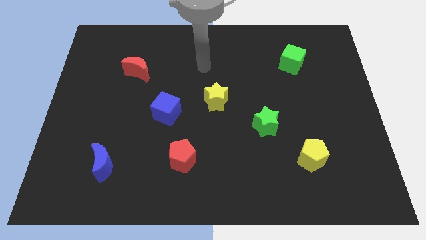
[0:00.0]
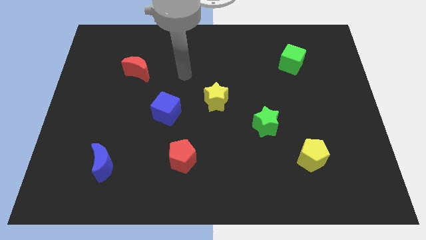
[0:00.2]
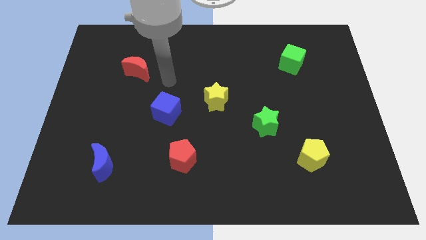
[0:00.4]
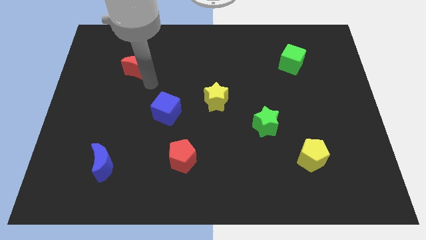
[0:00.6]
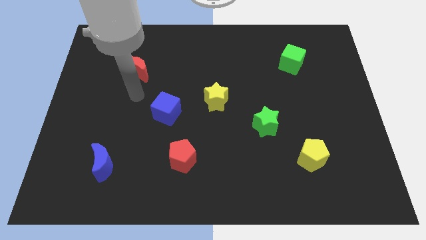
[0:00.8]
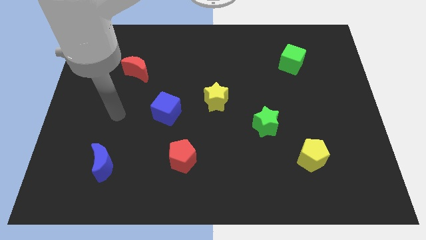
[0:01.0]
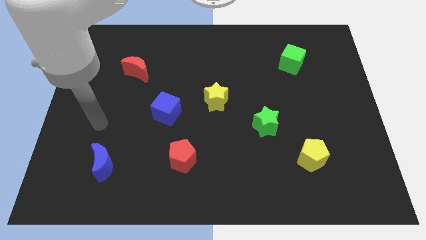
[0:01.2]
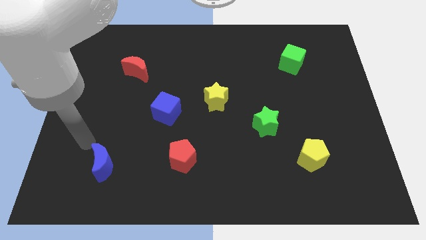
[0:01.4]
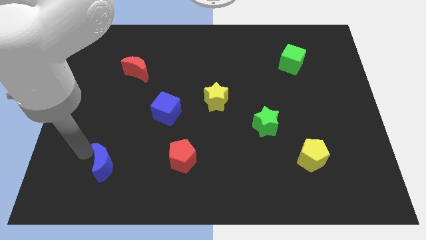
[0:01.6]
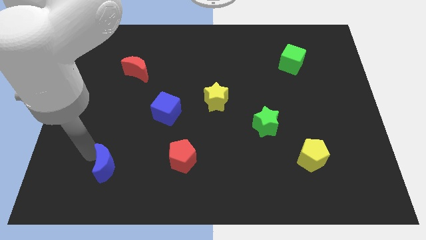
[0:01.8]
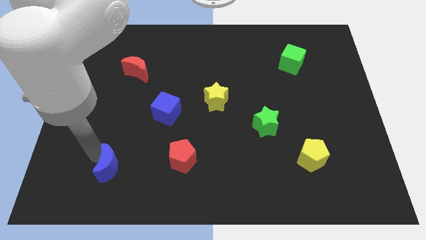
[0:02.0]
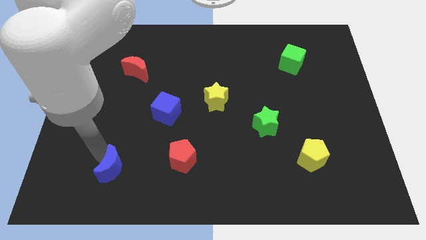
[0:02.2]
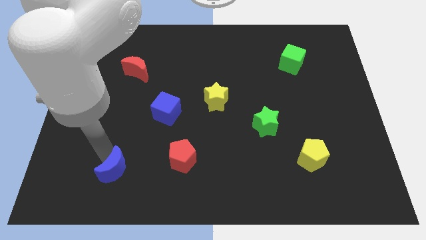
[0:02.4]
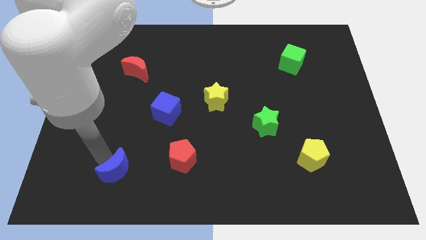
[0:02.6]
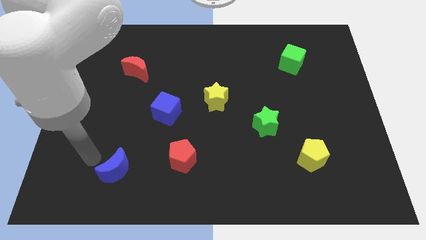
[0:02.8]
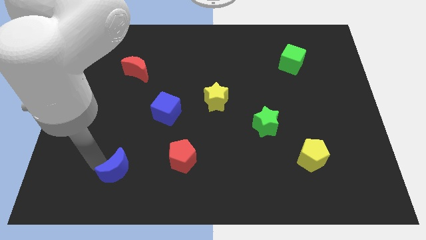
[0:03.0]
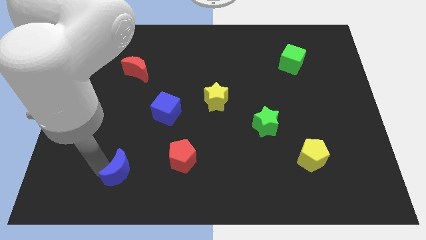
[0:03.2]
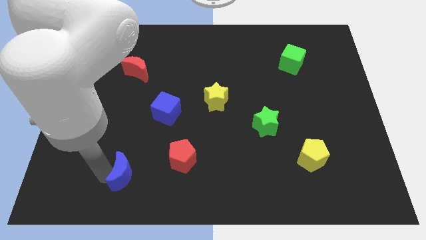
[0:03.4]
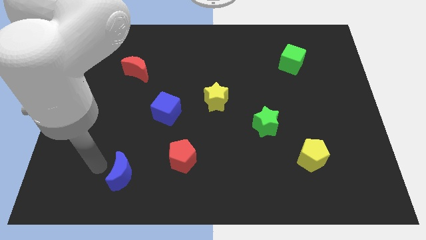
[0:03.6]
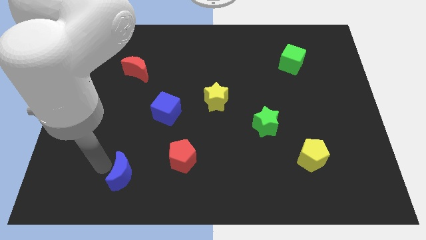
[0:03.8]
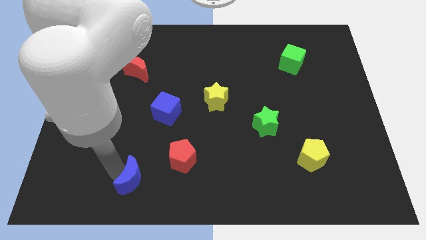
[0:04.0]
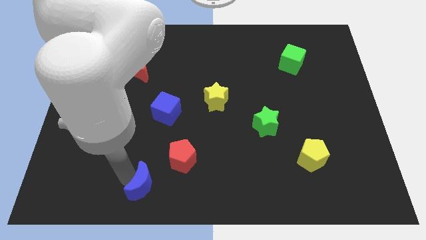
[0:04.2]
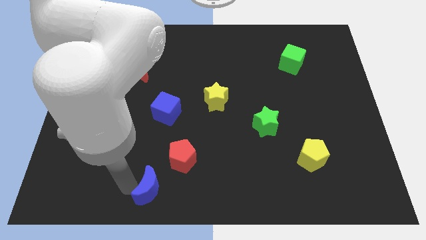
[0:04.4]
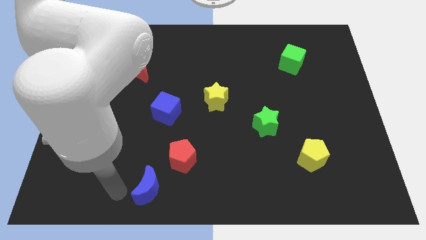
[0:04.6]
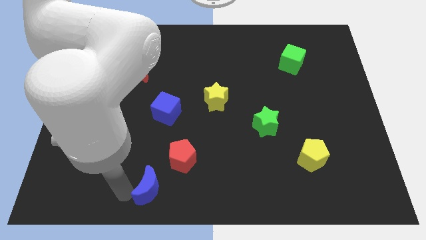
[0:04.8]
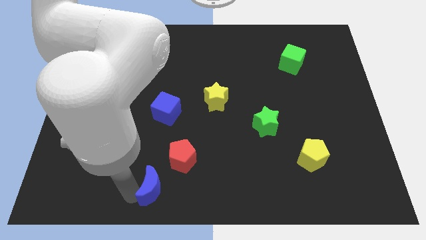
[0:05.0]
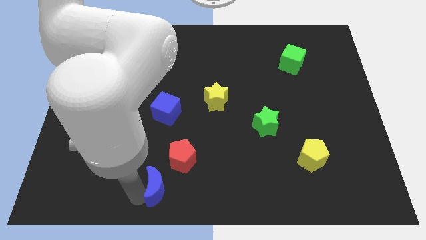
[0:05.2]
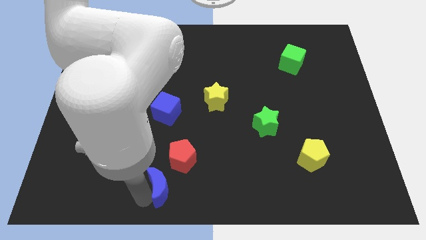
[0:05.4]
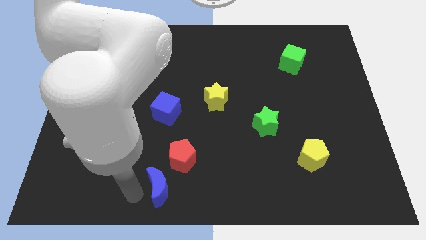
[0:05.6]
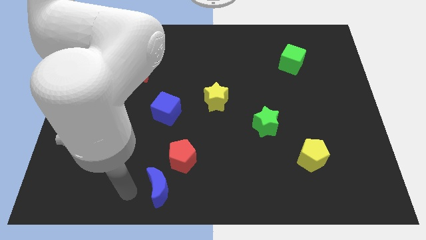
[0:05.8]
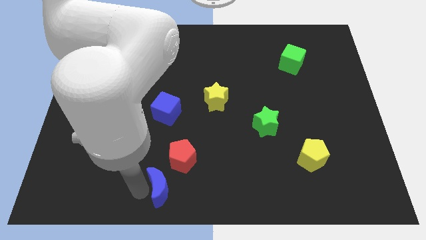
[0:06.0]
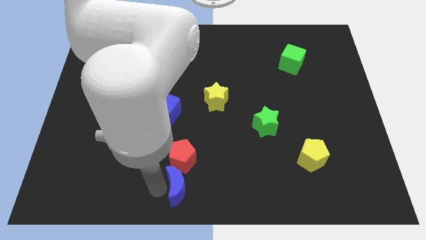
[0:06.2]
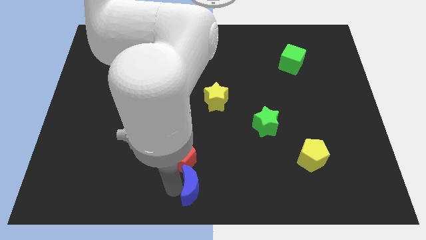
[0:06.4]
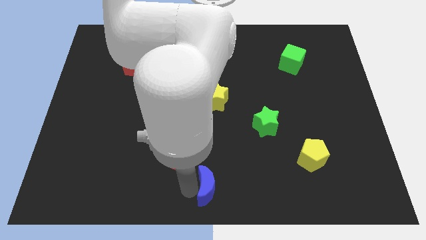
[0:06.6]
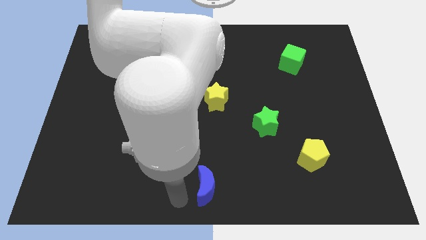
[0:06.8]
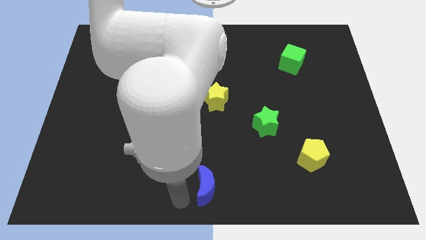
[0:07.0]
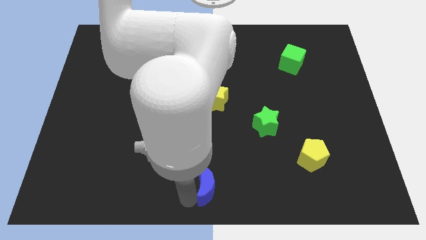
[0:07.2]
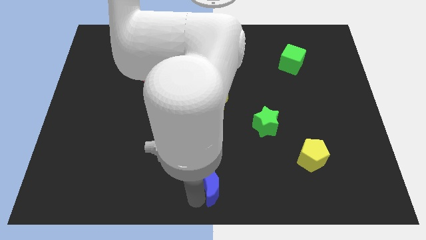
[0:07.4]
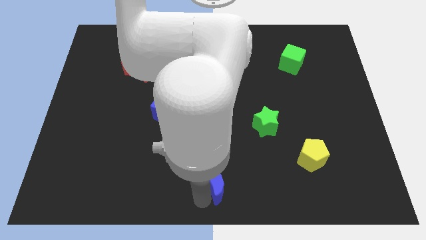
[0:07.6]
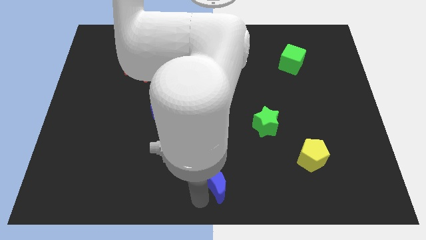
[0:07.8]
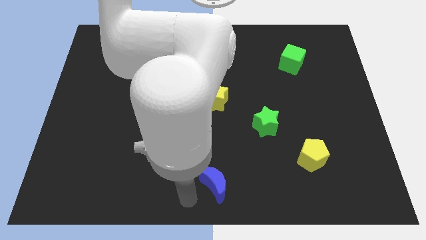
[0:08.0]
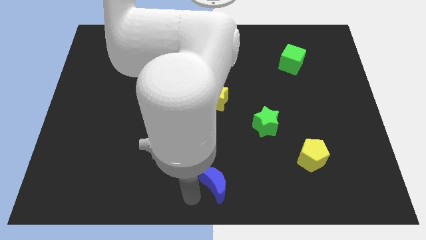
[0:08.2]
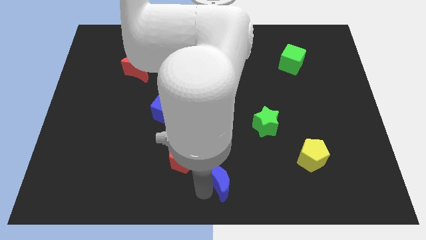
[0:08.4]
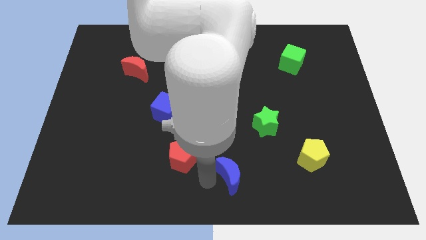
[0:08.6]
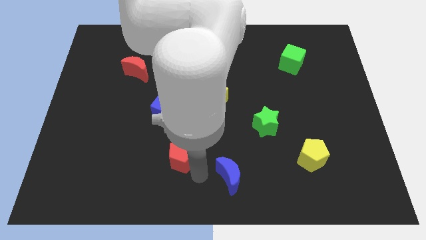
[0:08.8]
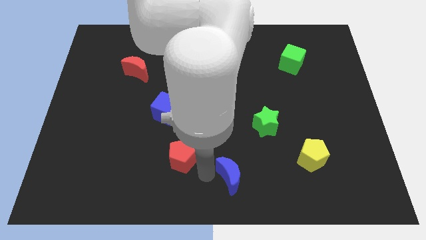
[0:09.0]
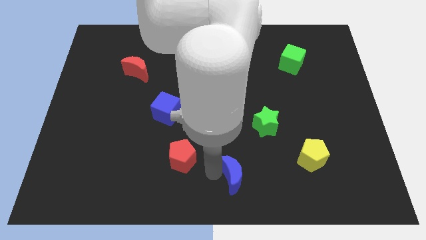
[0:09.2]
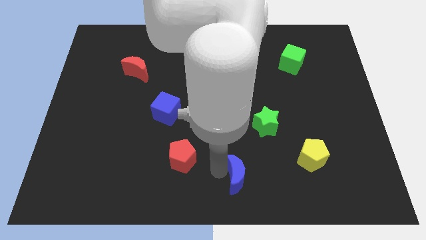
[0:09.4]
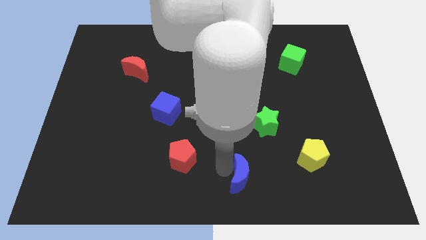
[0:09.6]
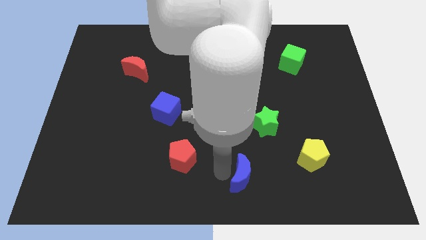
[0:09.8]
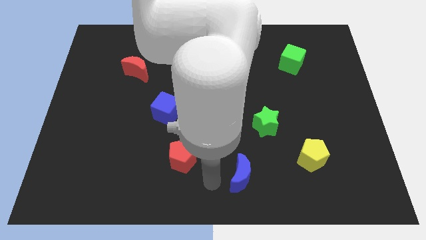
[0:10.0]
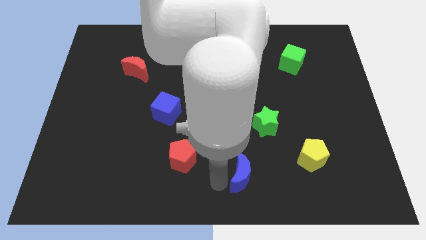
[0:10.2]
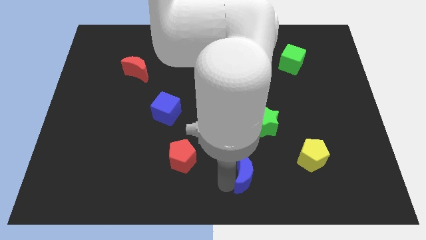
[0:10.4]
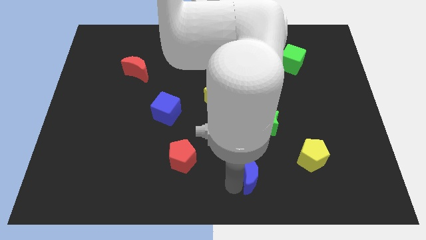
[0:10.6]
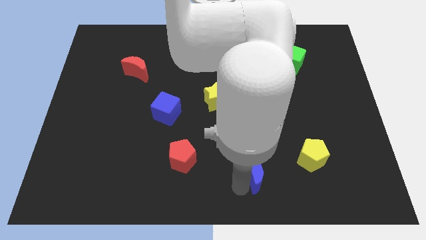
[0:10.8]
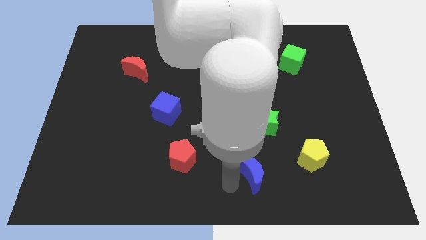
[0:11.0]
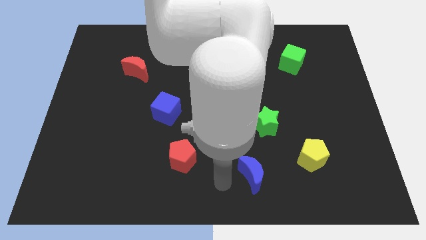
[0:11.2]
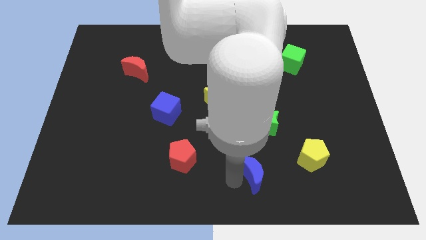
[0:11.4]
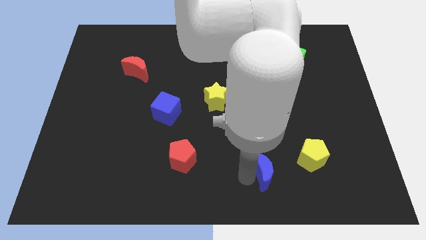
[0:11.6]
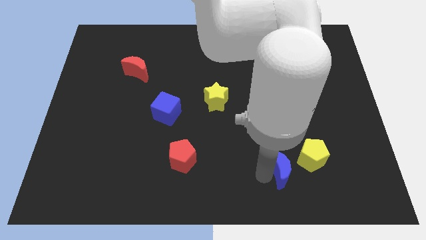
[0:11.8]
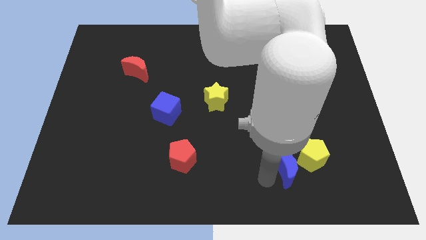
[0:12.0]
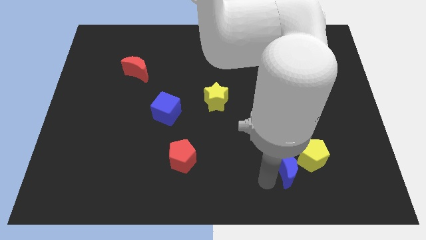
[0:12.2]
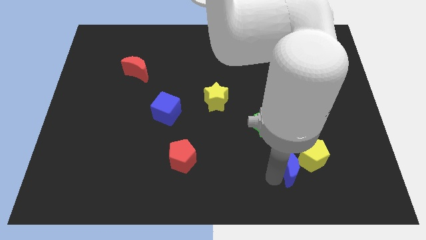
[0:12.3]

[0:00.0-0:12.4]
move the blue moon close to the yellow pentagon

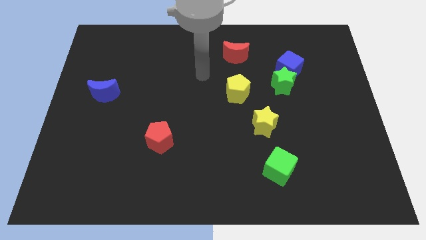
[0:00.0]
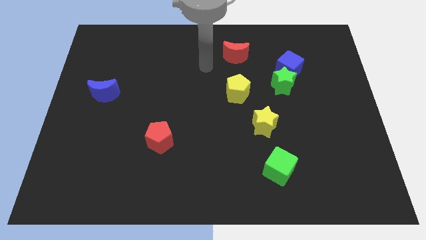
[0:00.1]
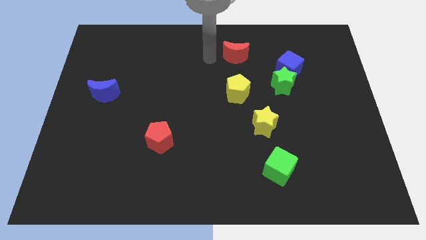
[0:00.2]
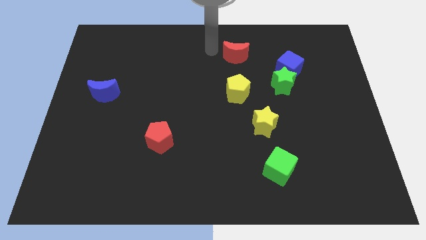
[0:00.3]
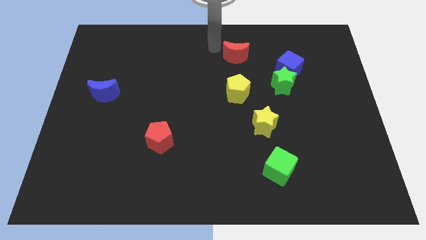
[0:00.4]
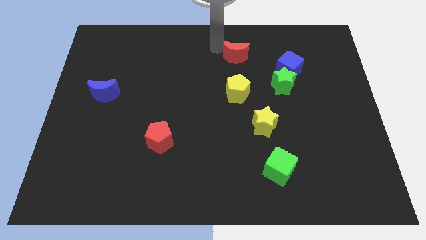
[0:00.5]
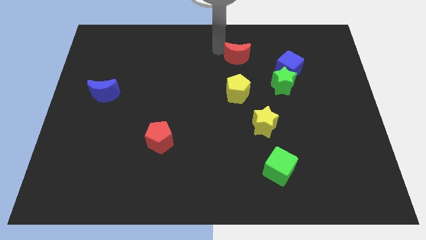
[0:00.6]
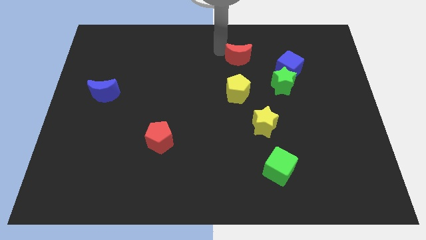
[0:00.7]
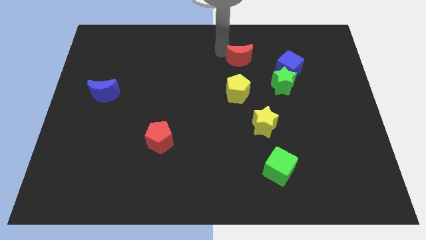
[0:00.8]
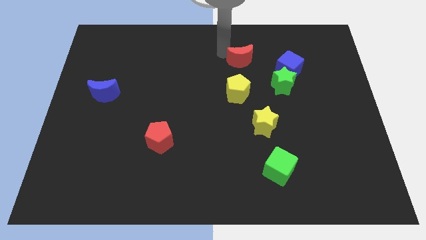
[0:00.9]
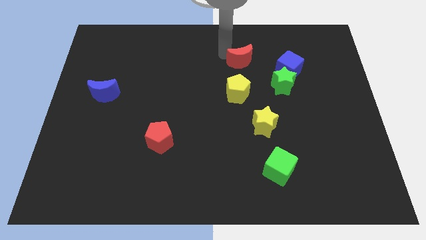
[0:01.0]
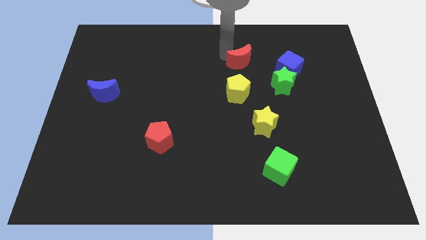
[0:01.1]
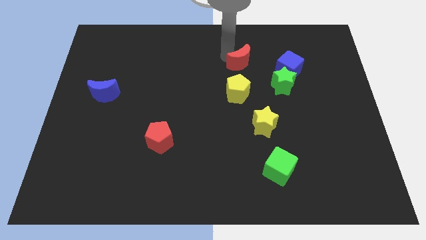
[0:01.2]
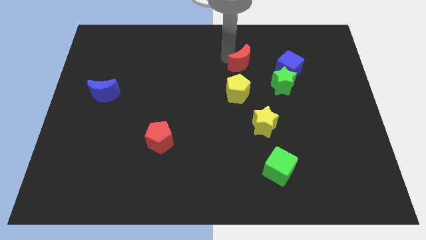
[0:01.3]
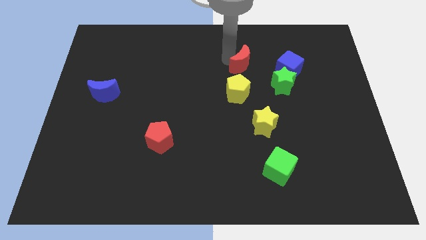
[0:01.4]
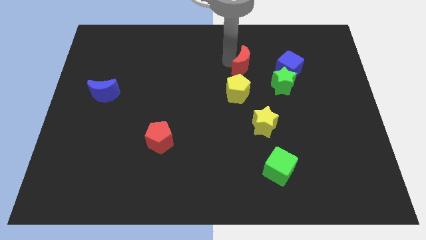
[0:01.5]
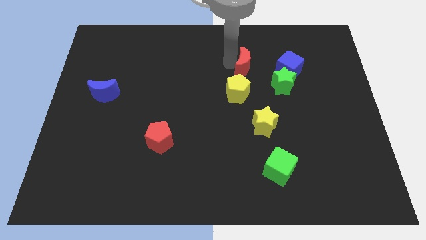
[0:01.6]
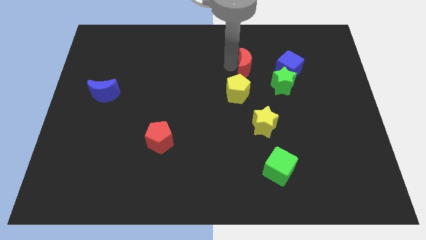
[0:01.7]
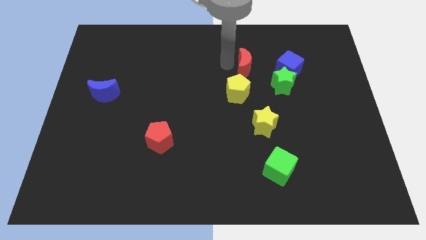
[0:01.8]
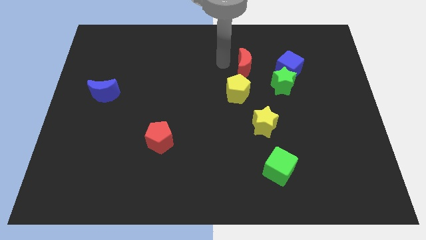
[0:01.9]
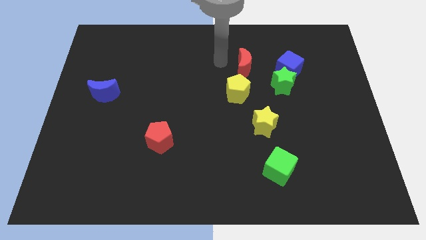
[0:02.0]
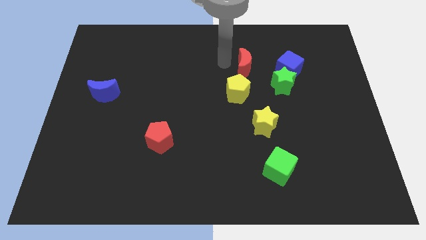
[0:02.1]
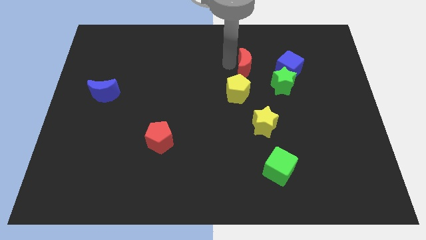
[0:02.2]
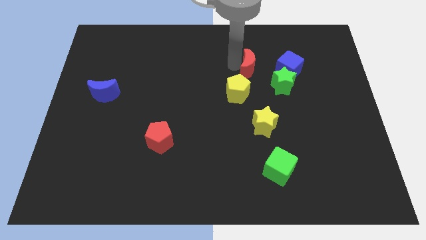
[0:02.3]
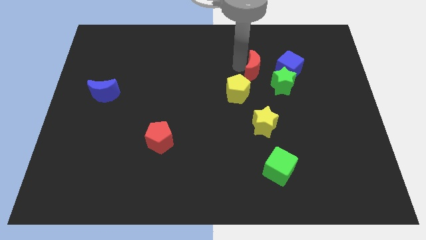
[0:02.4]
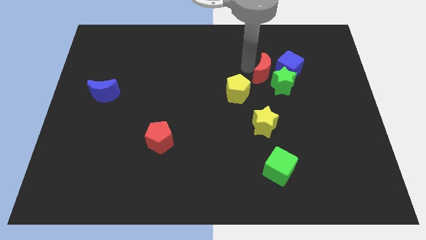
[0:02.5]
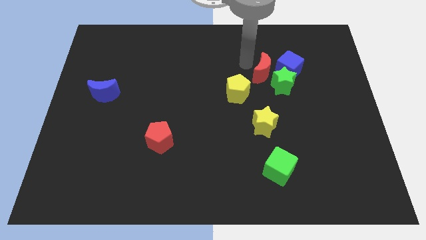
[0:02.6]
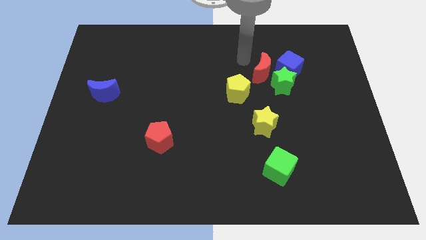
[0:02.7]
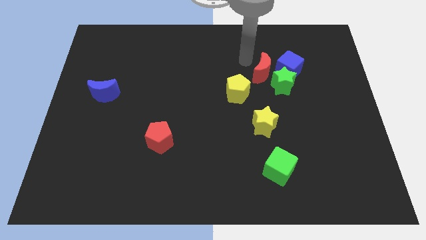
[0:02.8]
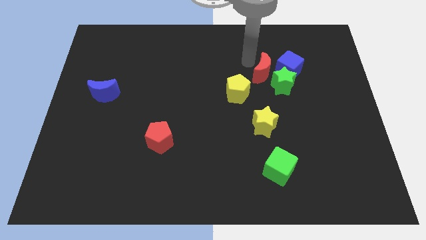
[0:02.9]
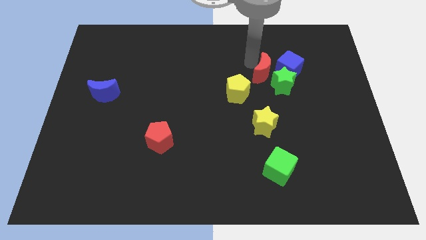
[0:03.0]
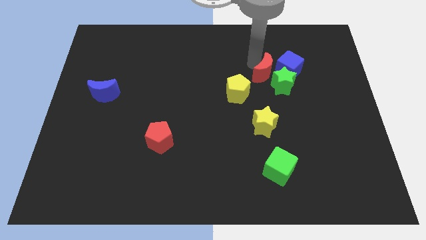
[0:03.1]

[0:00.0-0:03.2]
move the red moon to the green star
